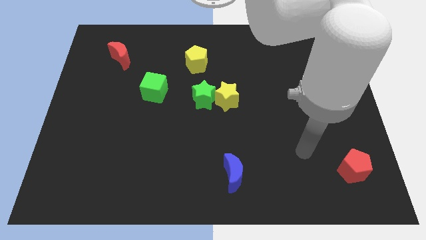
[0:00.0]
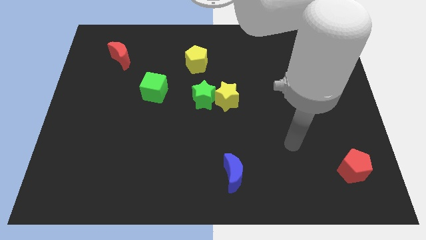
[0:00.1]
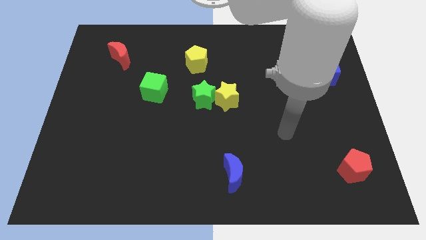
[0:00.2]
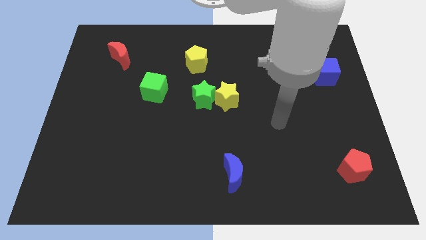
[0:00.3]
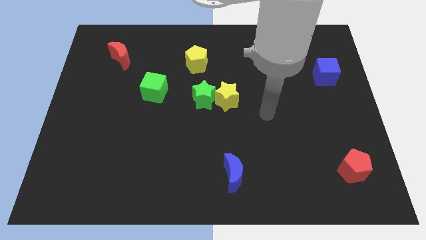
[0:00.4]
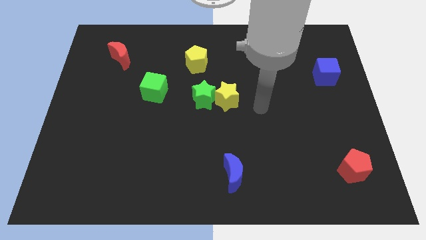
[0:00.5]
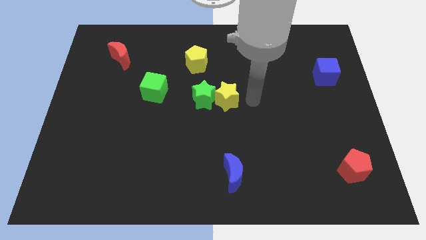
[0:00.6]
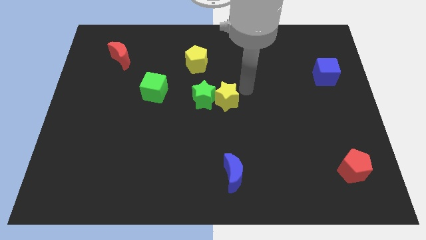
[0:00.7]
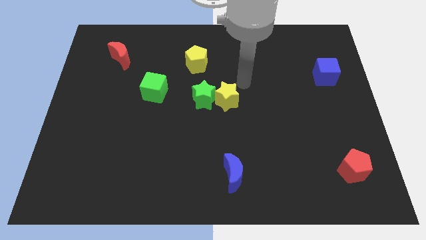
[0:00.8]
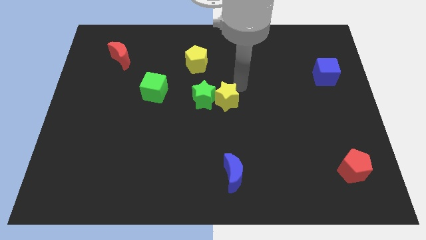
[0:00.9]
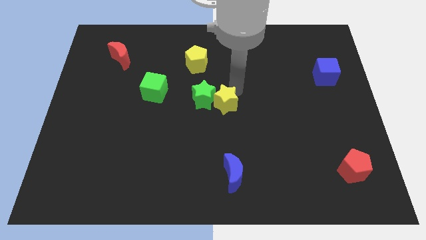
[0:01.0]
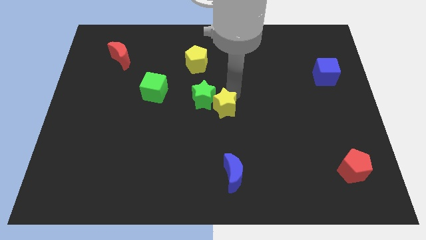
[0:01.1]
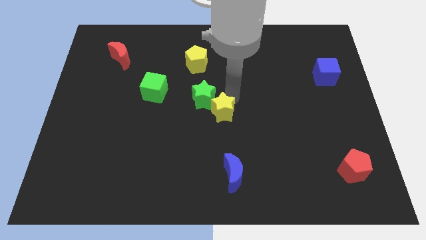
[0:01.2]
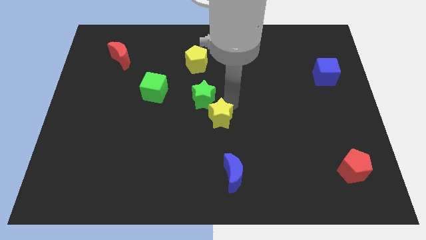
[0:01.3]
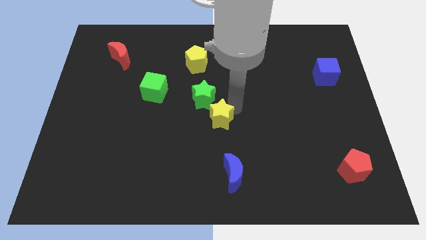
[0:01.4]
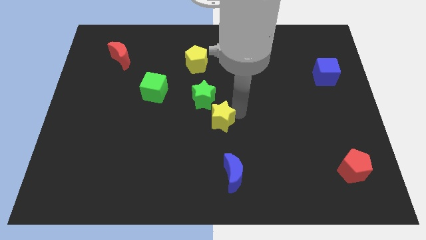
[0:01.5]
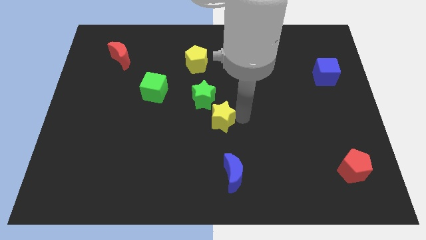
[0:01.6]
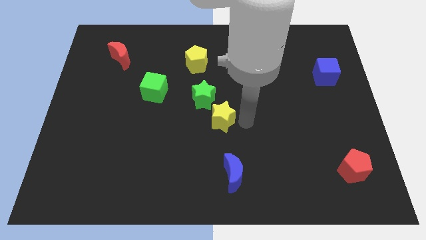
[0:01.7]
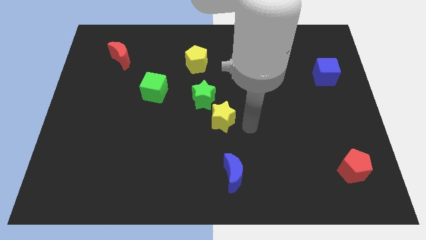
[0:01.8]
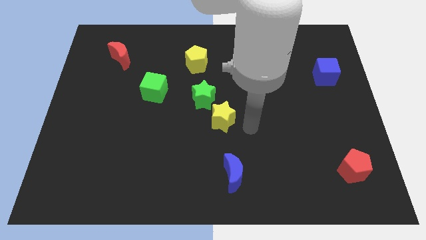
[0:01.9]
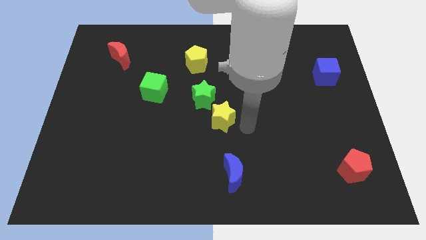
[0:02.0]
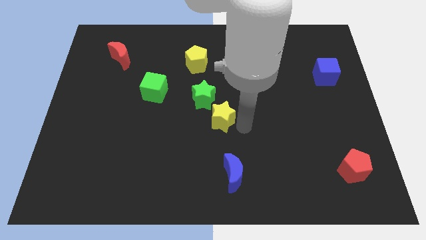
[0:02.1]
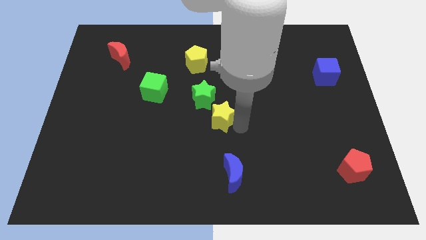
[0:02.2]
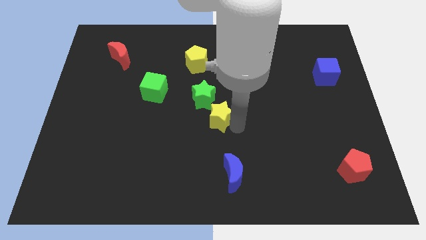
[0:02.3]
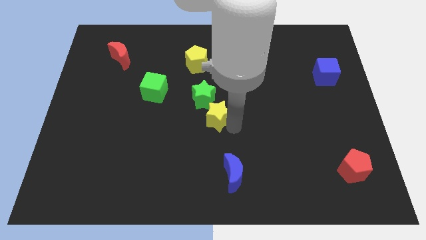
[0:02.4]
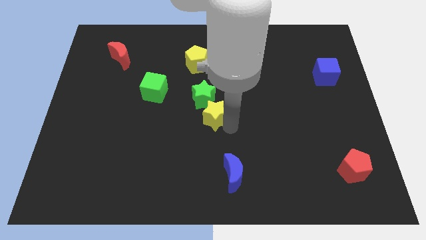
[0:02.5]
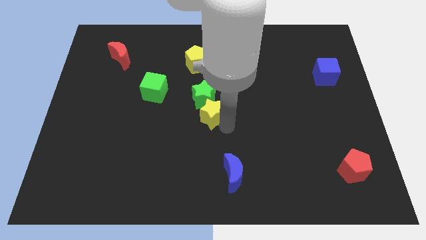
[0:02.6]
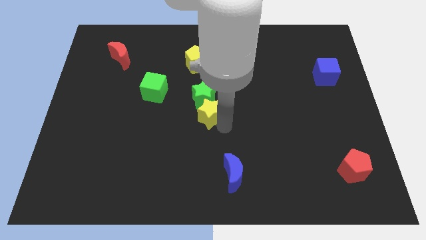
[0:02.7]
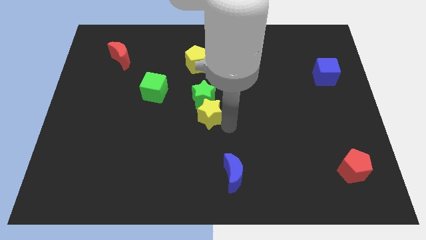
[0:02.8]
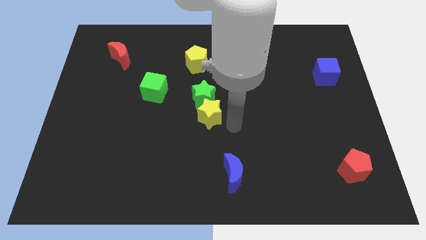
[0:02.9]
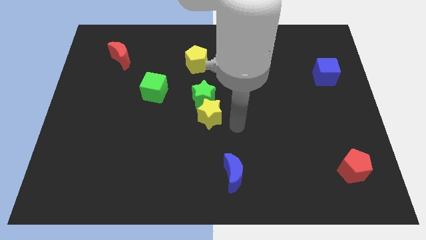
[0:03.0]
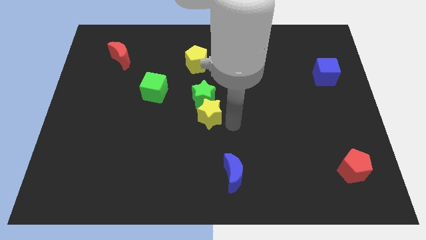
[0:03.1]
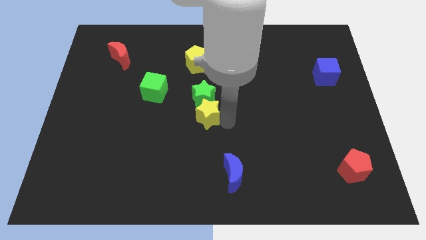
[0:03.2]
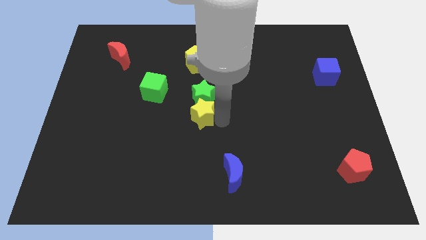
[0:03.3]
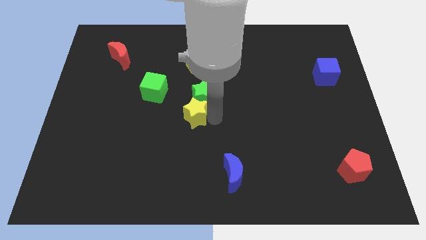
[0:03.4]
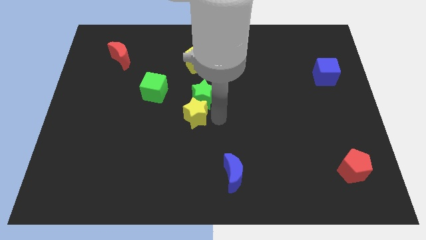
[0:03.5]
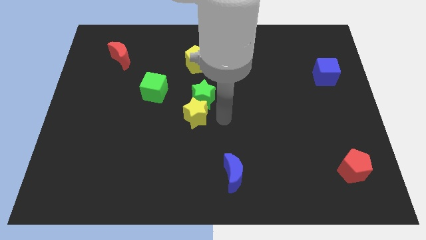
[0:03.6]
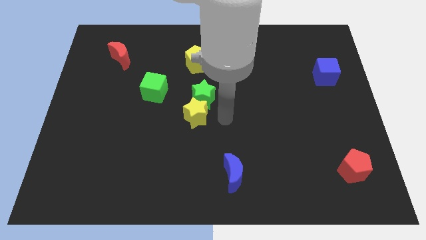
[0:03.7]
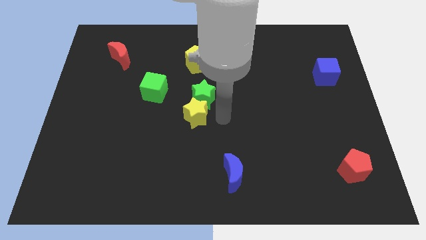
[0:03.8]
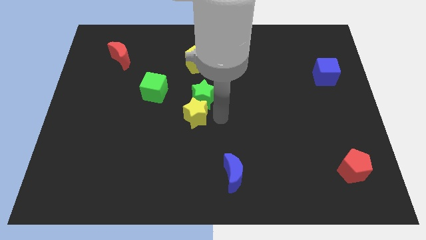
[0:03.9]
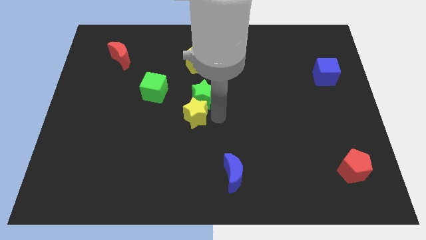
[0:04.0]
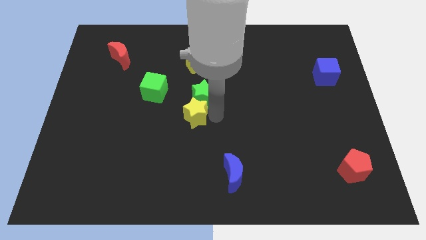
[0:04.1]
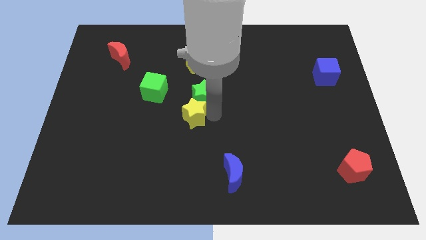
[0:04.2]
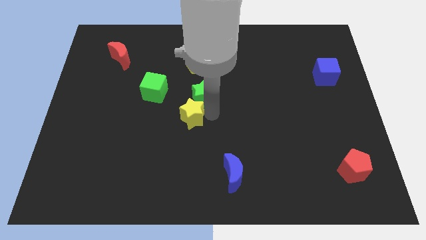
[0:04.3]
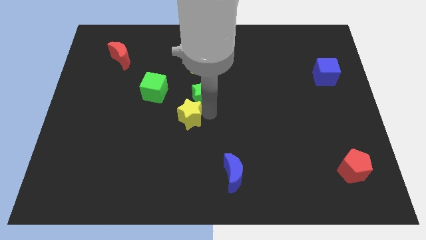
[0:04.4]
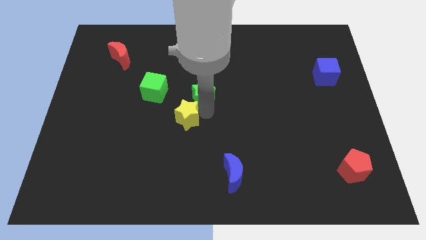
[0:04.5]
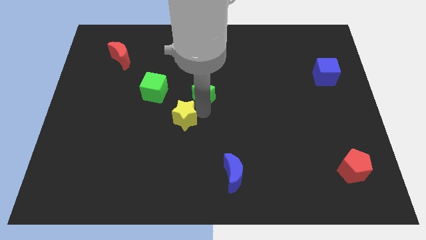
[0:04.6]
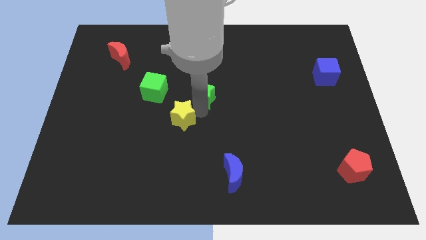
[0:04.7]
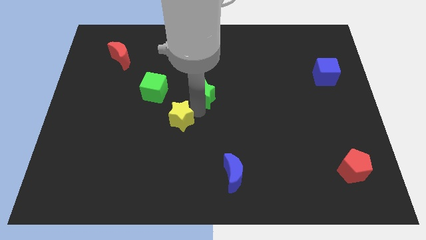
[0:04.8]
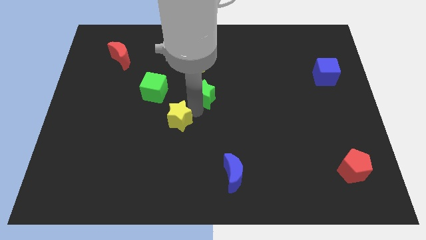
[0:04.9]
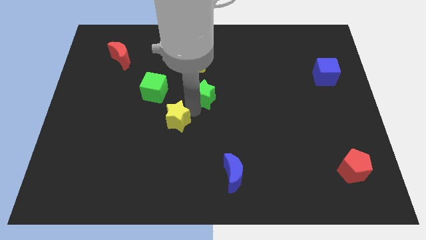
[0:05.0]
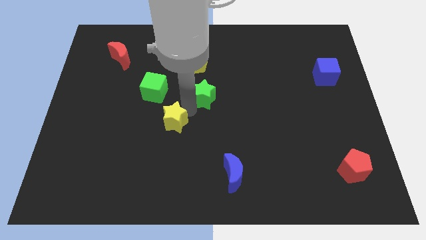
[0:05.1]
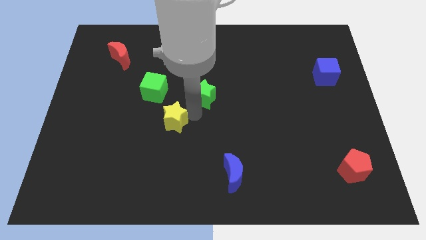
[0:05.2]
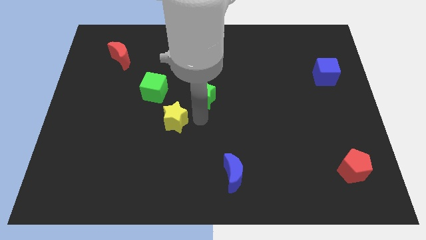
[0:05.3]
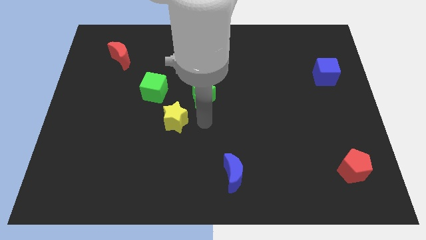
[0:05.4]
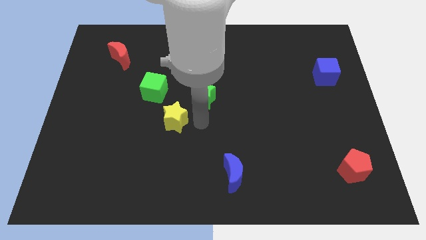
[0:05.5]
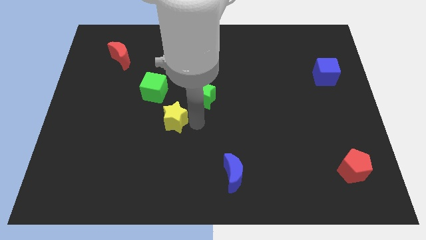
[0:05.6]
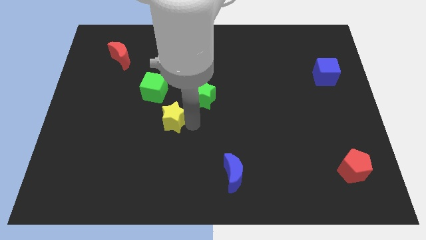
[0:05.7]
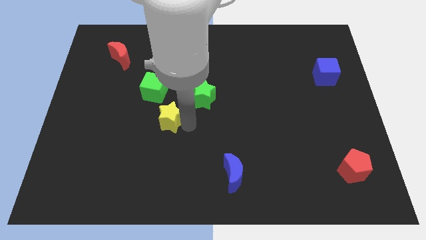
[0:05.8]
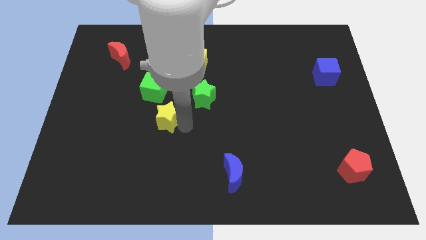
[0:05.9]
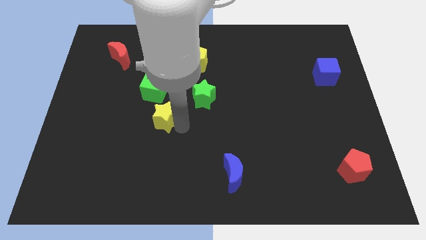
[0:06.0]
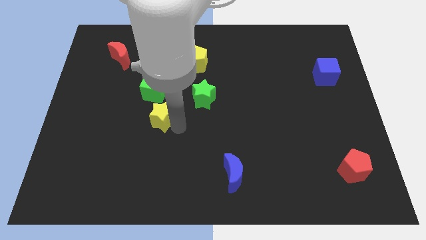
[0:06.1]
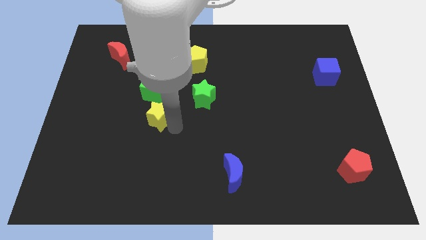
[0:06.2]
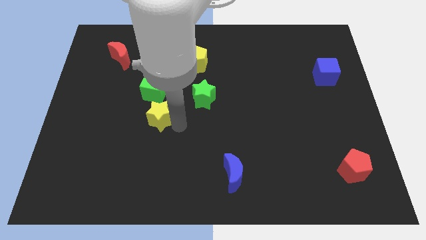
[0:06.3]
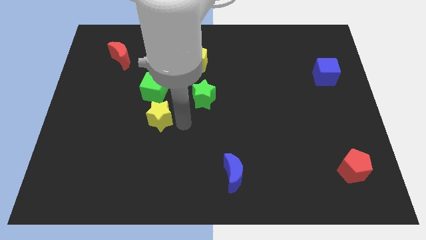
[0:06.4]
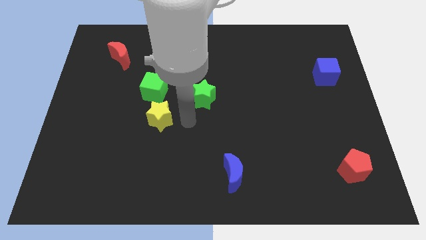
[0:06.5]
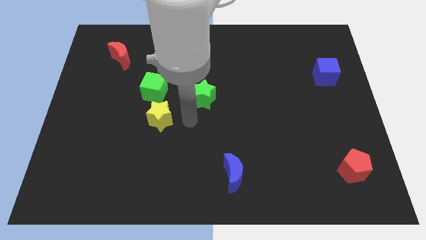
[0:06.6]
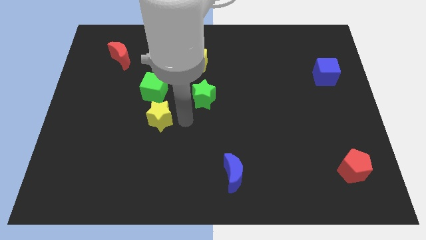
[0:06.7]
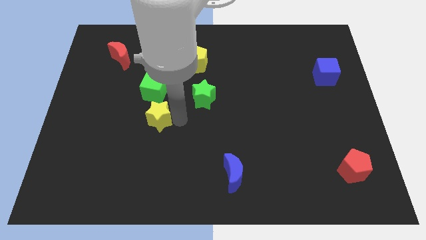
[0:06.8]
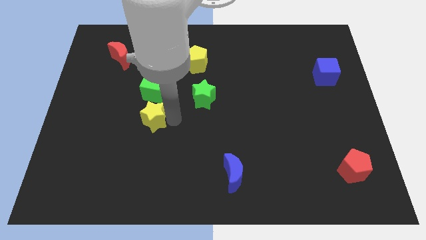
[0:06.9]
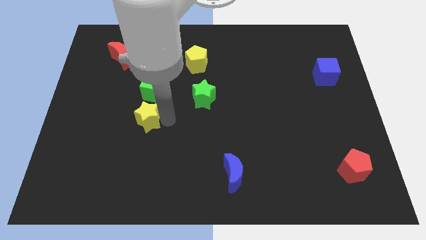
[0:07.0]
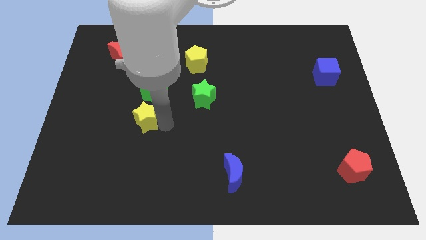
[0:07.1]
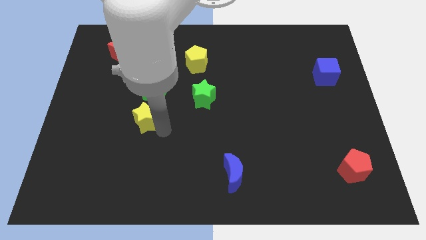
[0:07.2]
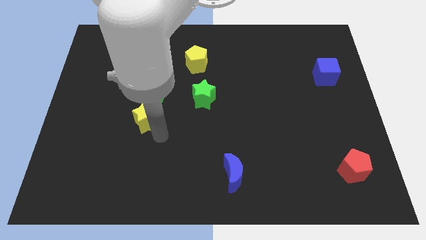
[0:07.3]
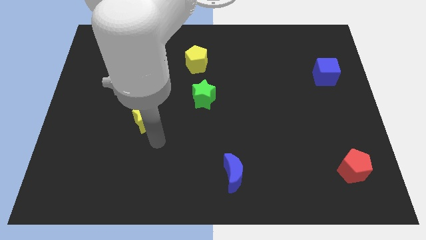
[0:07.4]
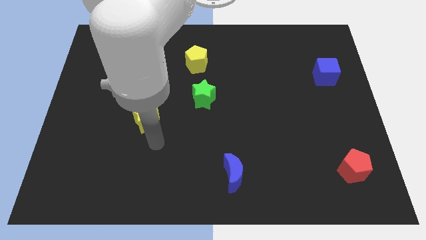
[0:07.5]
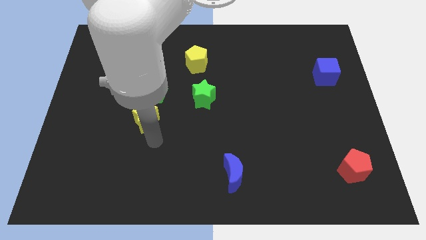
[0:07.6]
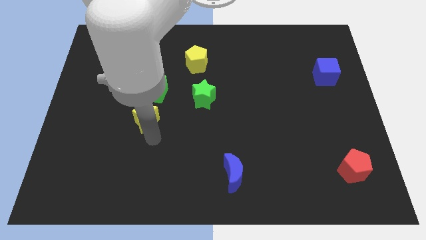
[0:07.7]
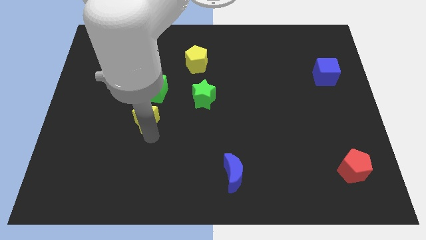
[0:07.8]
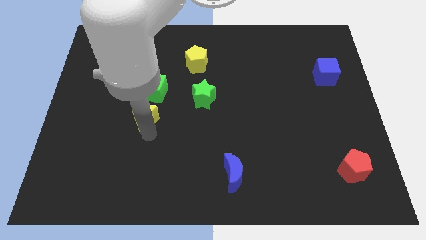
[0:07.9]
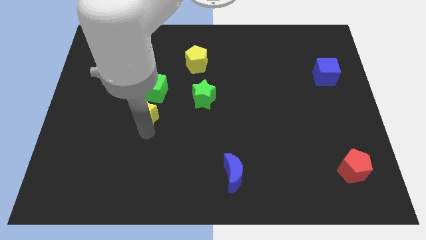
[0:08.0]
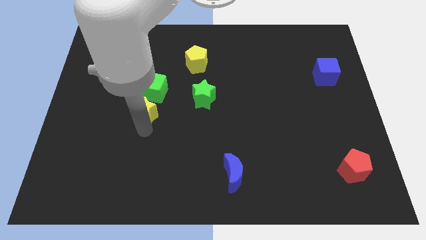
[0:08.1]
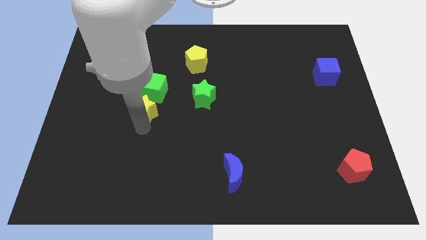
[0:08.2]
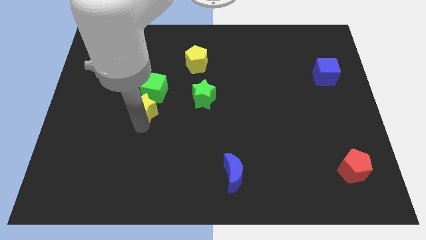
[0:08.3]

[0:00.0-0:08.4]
slide the yellow star to the left of the green star
